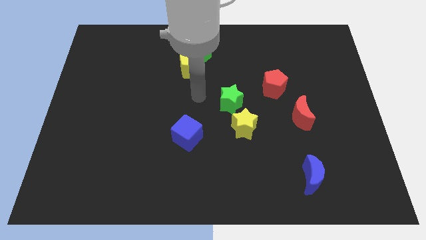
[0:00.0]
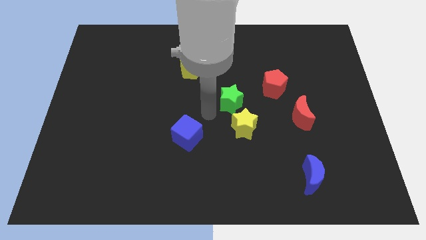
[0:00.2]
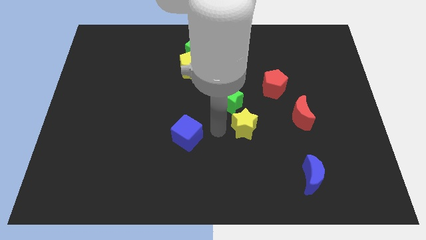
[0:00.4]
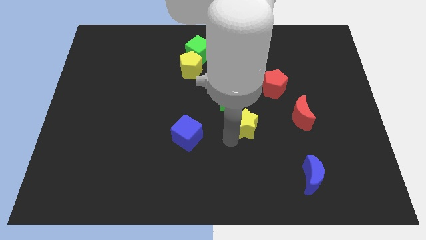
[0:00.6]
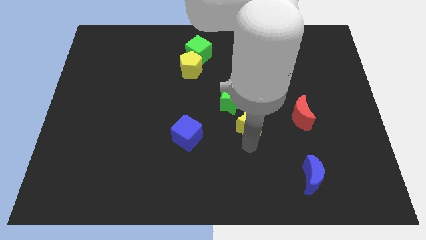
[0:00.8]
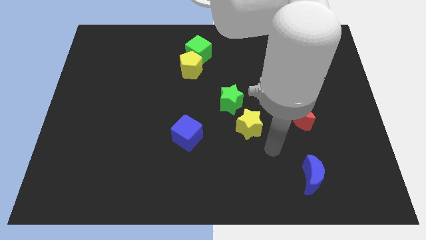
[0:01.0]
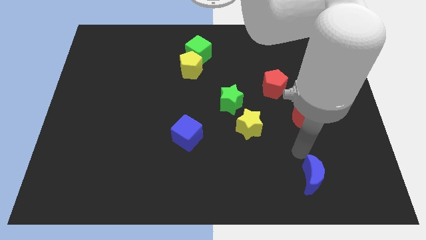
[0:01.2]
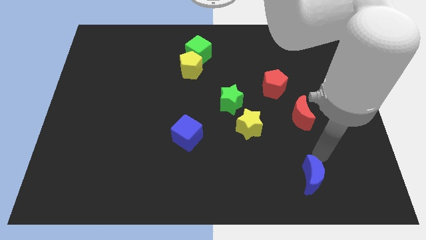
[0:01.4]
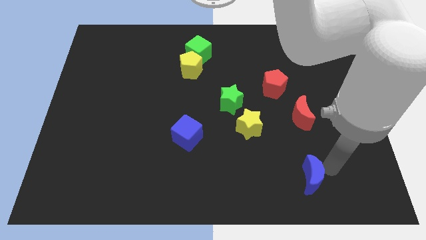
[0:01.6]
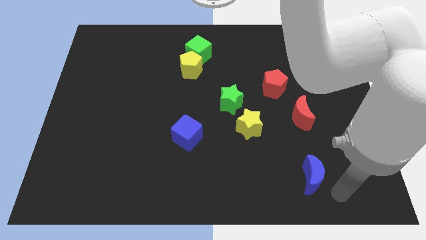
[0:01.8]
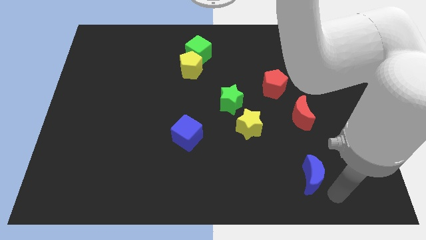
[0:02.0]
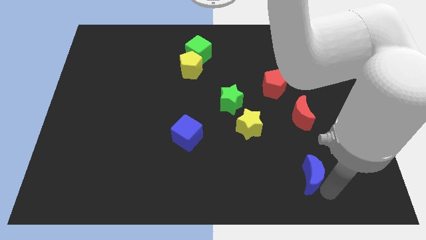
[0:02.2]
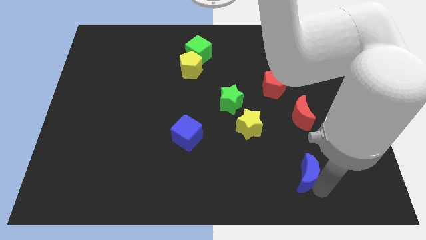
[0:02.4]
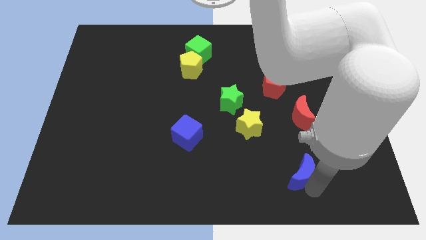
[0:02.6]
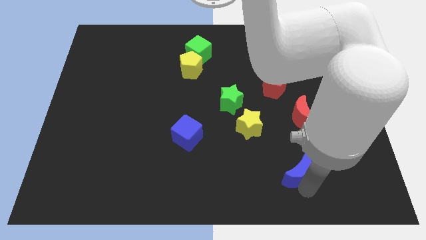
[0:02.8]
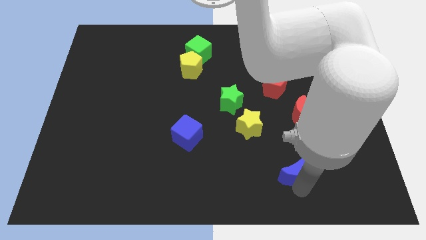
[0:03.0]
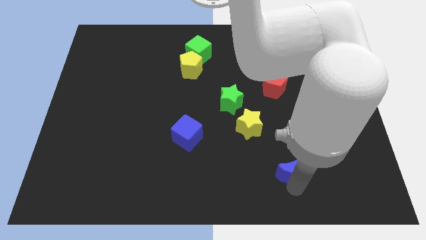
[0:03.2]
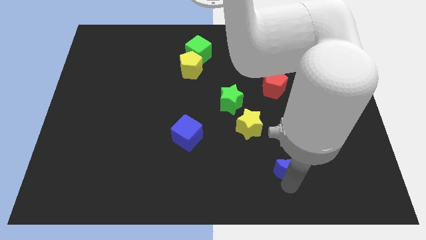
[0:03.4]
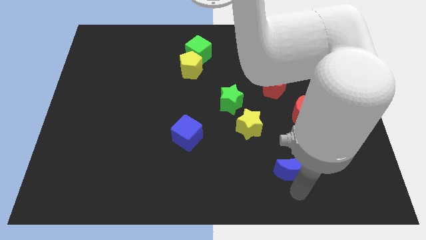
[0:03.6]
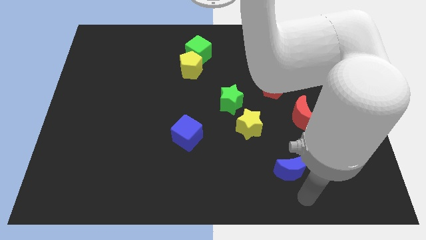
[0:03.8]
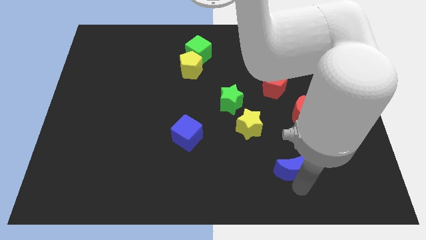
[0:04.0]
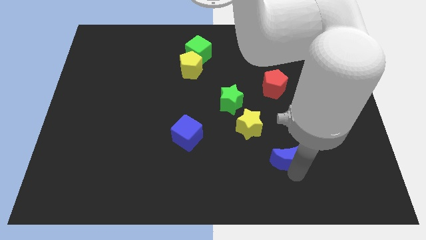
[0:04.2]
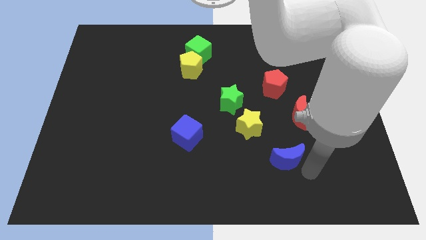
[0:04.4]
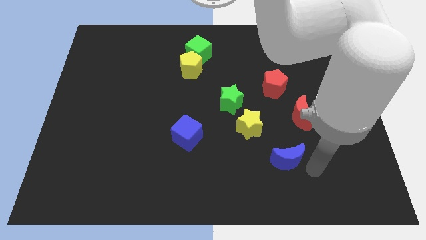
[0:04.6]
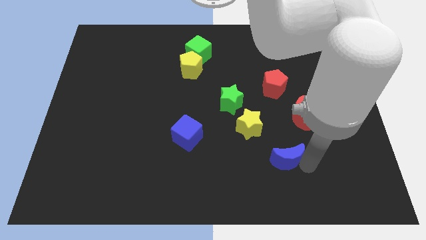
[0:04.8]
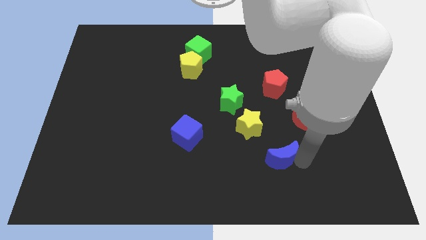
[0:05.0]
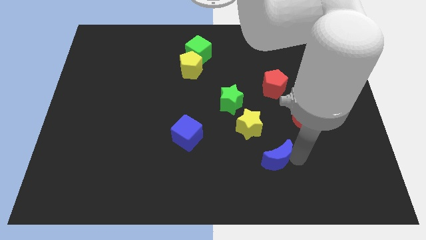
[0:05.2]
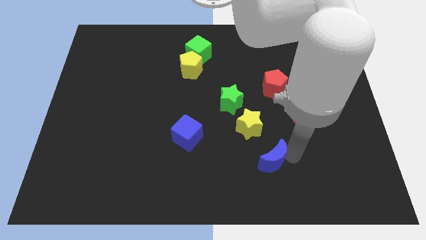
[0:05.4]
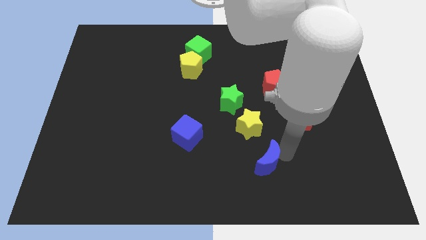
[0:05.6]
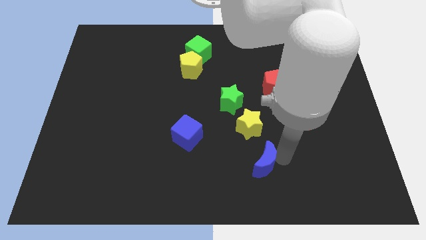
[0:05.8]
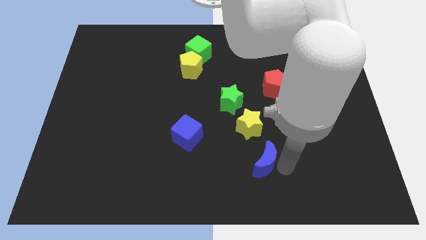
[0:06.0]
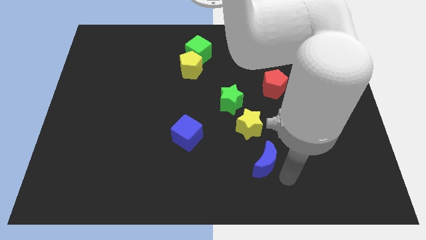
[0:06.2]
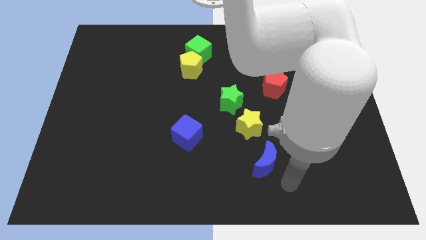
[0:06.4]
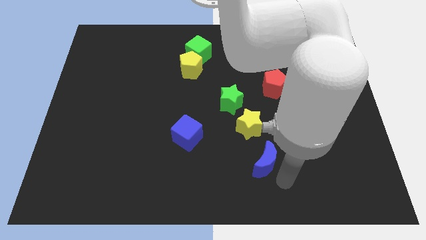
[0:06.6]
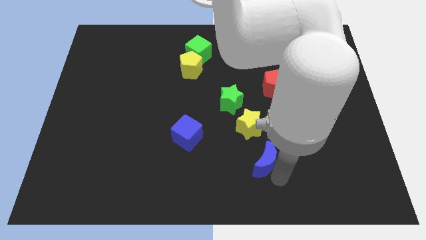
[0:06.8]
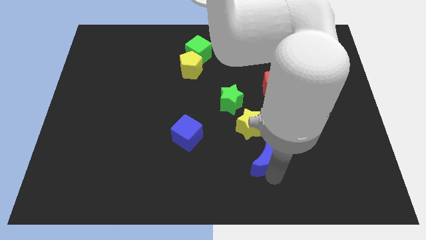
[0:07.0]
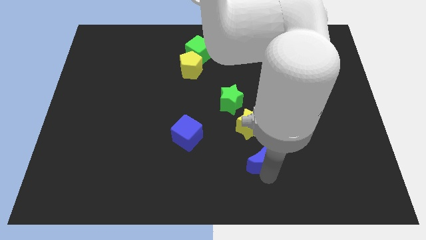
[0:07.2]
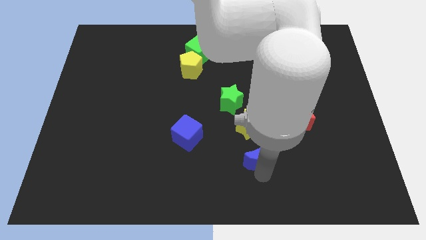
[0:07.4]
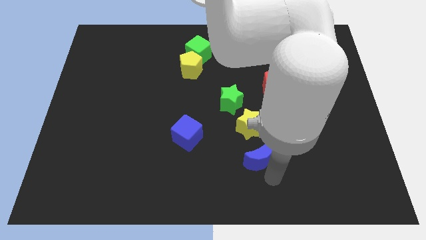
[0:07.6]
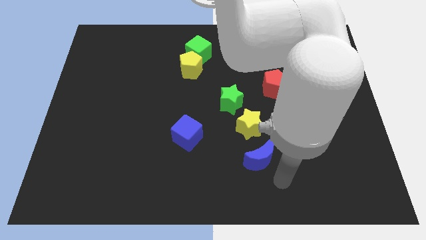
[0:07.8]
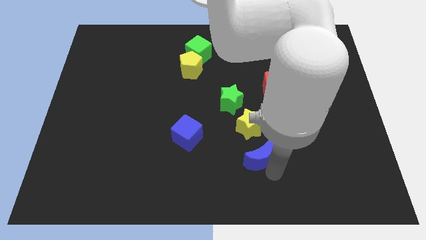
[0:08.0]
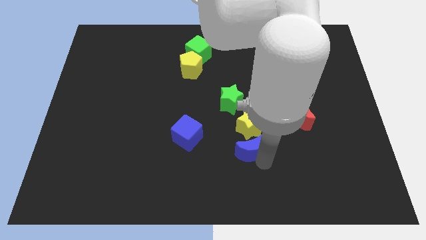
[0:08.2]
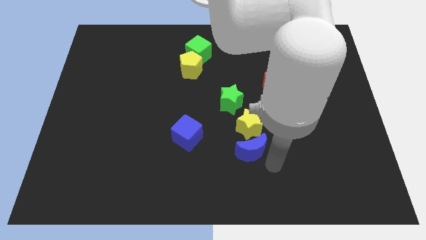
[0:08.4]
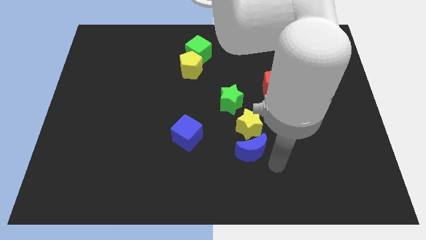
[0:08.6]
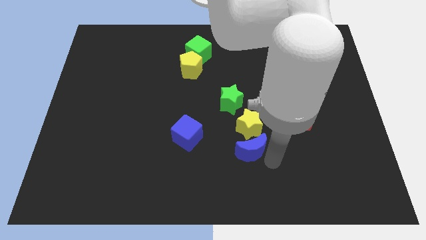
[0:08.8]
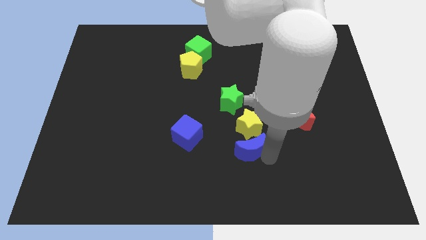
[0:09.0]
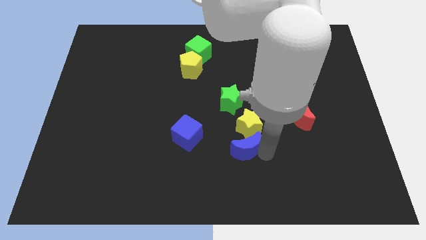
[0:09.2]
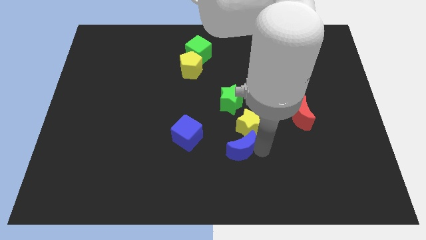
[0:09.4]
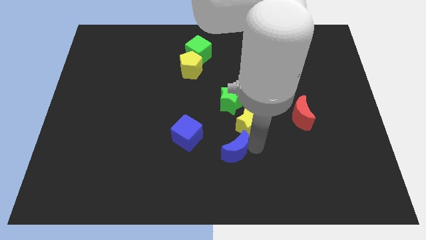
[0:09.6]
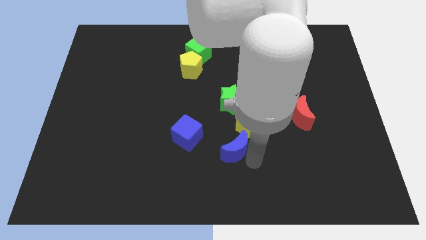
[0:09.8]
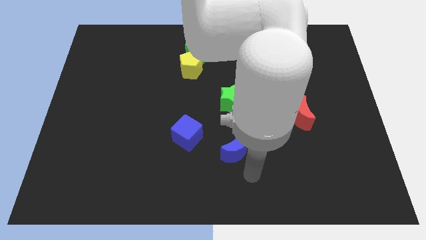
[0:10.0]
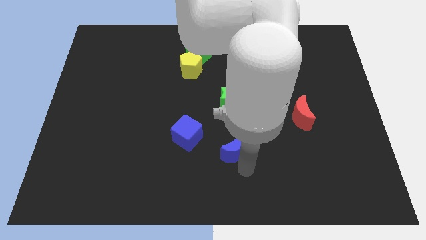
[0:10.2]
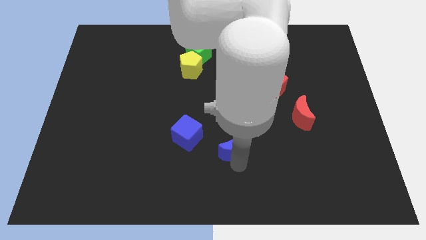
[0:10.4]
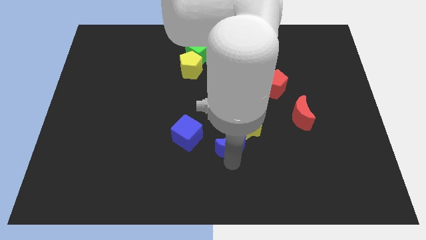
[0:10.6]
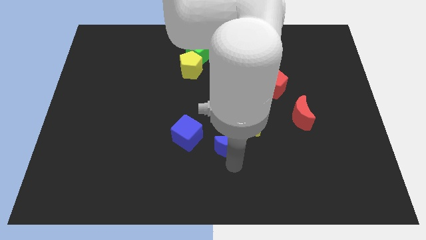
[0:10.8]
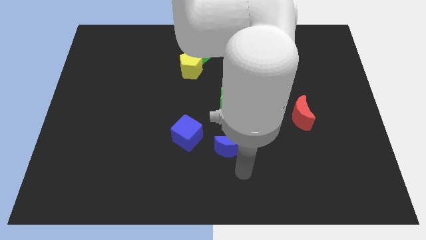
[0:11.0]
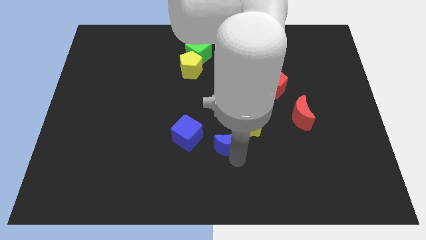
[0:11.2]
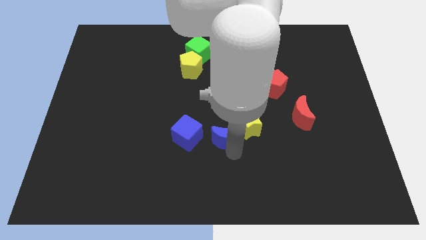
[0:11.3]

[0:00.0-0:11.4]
slide the blue moon to the center of the board

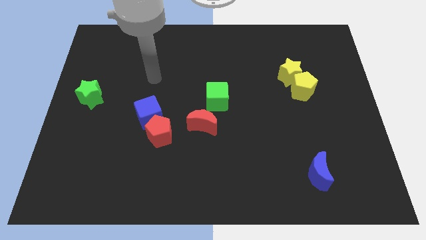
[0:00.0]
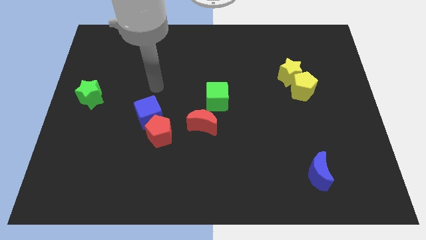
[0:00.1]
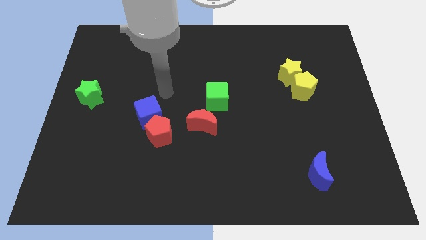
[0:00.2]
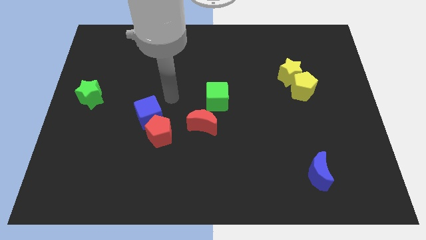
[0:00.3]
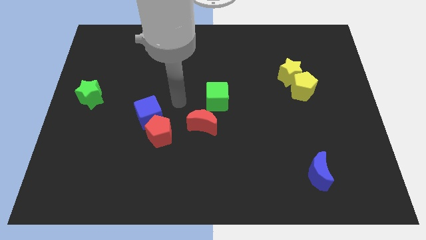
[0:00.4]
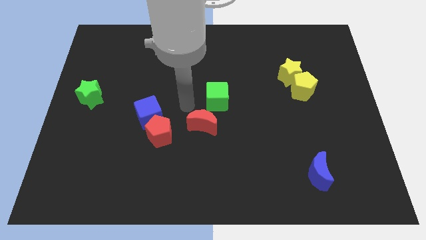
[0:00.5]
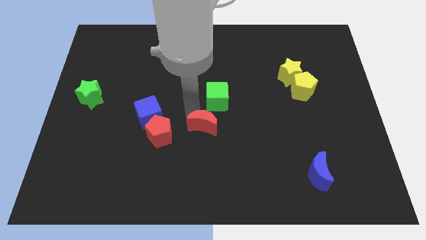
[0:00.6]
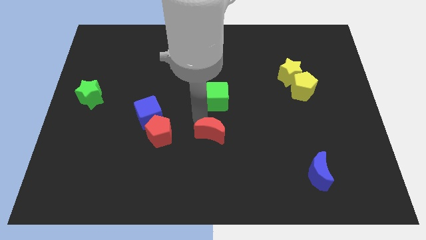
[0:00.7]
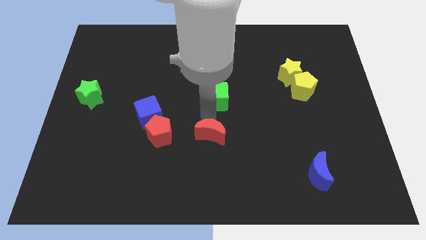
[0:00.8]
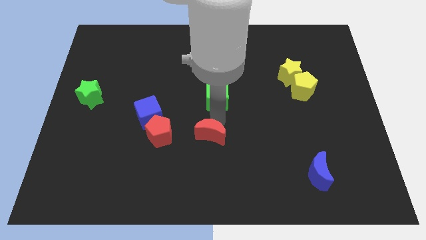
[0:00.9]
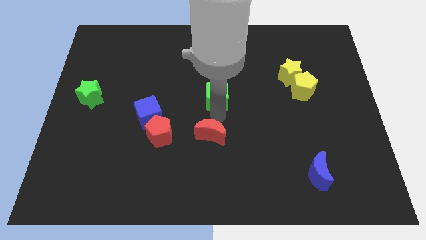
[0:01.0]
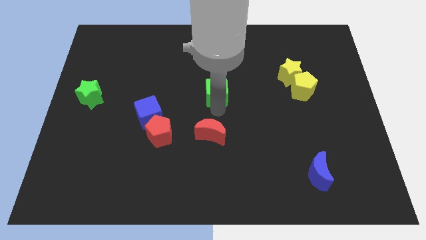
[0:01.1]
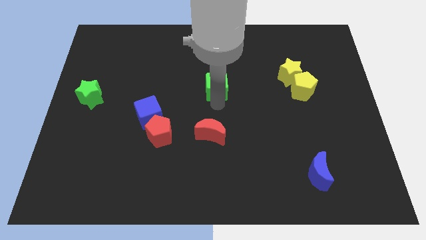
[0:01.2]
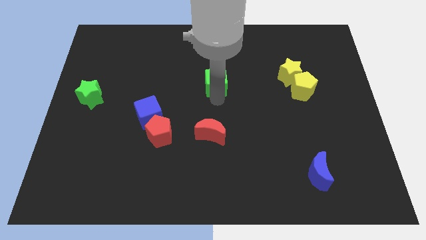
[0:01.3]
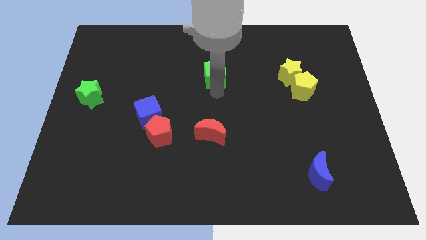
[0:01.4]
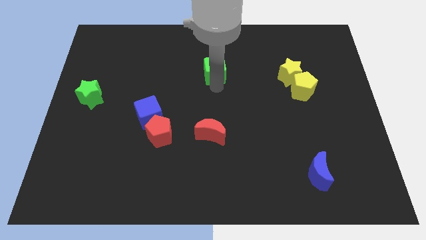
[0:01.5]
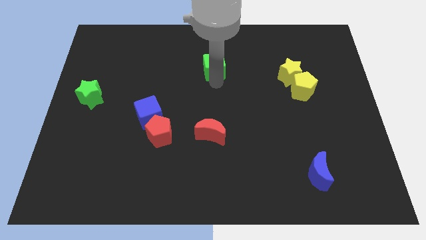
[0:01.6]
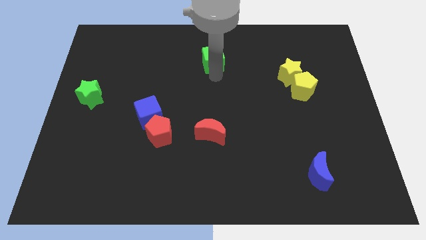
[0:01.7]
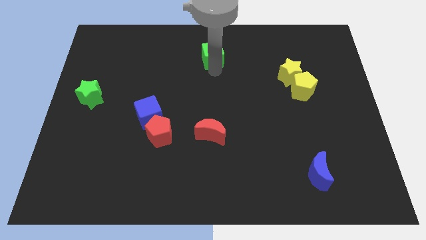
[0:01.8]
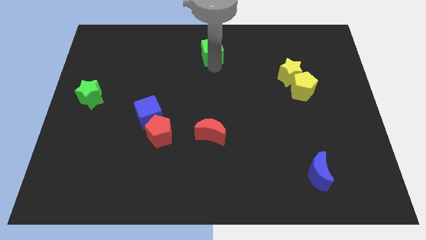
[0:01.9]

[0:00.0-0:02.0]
slide the green cube to the top side
